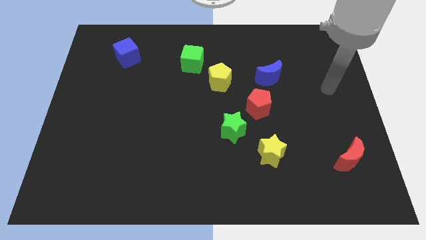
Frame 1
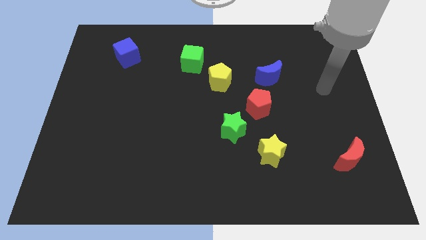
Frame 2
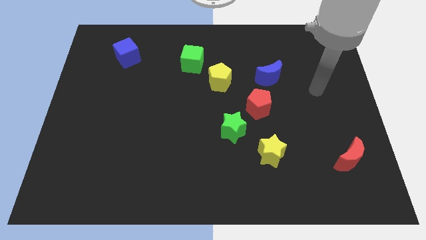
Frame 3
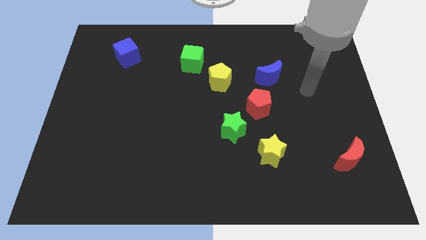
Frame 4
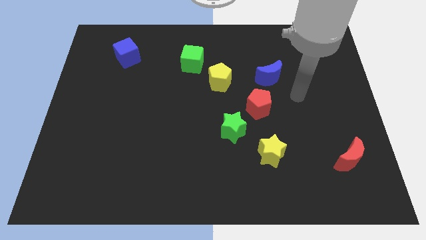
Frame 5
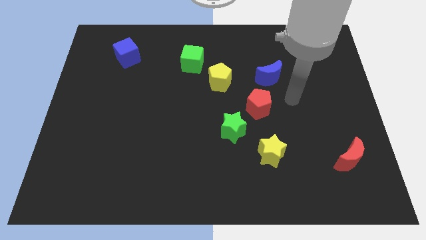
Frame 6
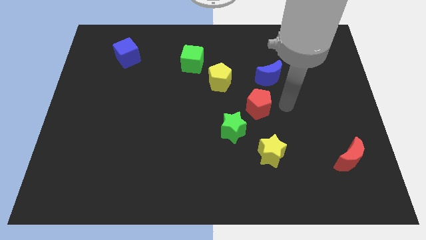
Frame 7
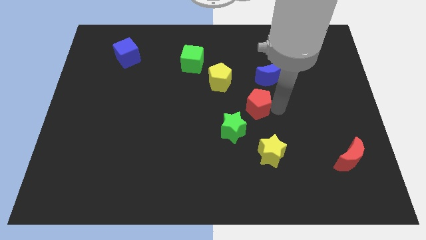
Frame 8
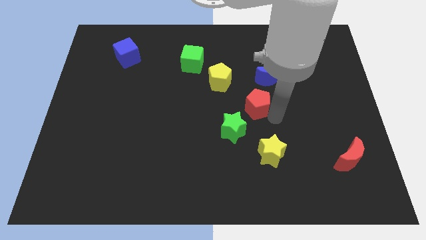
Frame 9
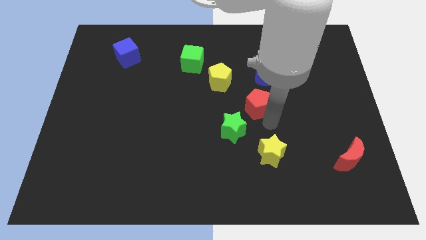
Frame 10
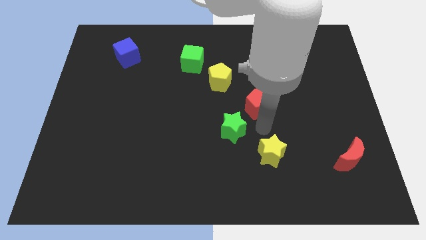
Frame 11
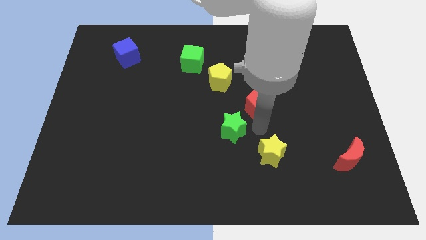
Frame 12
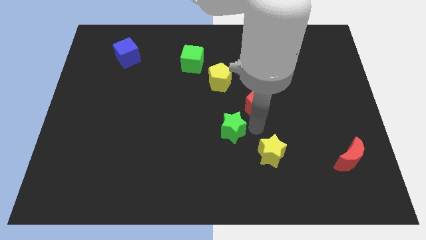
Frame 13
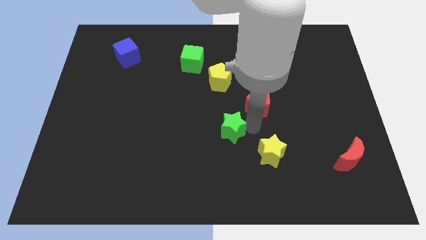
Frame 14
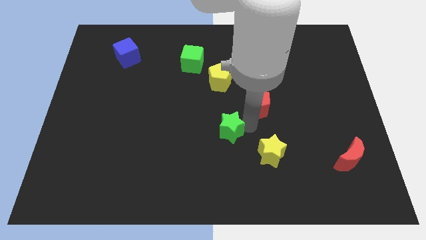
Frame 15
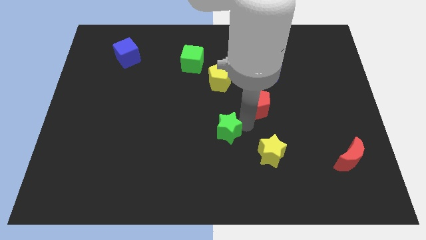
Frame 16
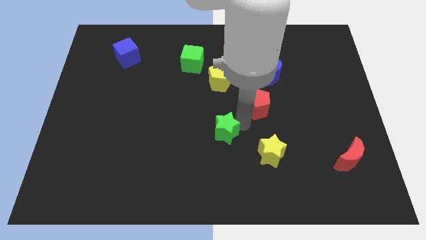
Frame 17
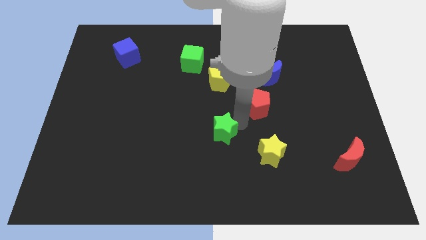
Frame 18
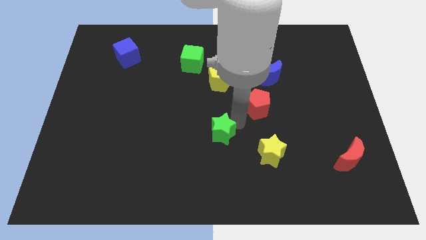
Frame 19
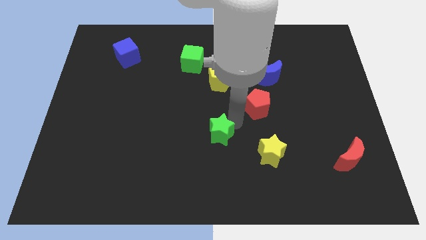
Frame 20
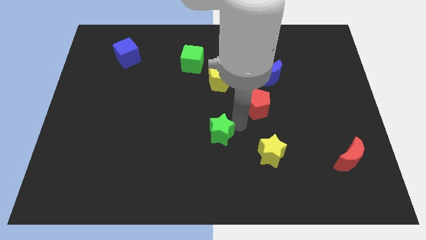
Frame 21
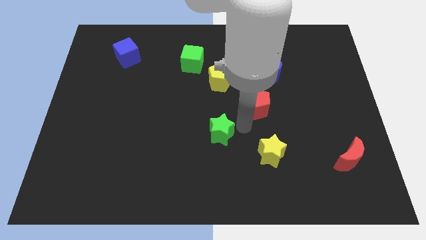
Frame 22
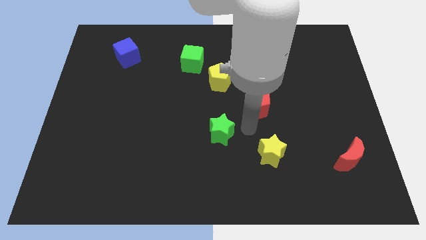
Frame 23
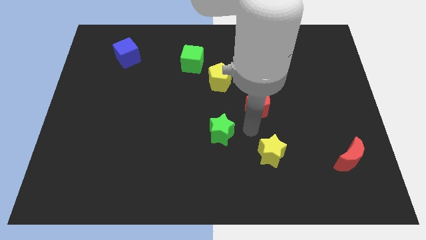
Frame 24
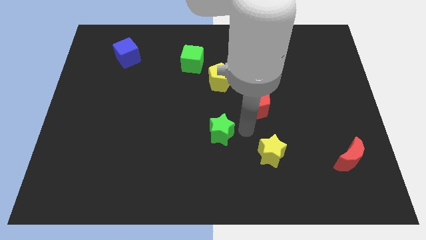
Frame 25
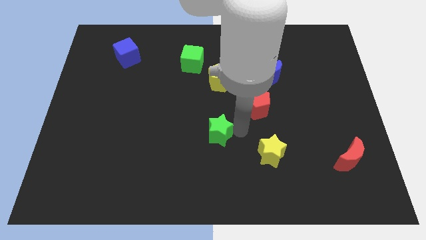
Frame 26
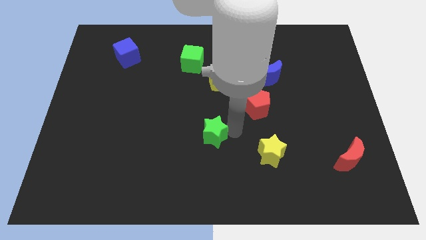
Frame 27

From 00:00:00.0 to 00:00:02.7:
separate the green star from the red pentagon and yellow star

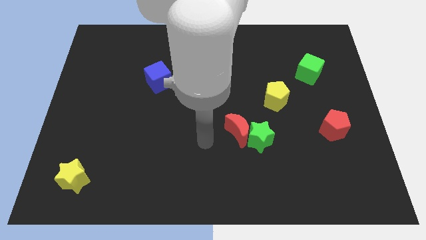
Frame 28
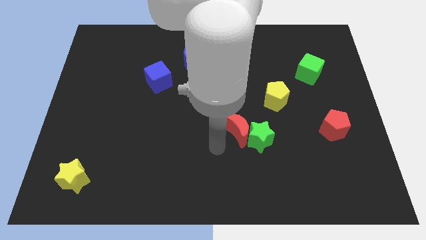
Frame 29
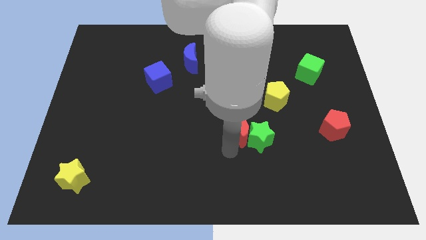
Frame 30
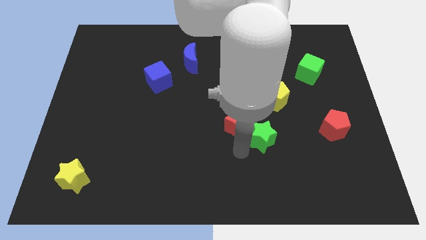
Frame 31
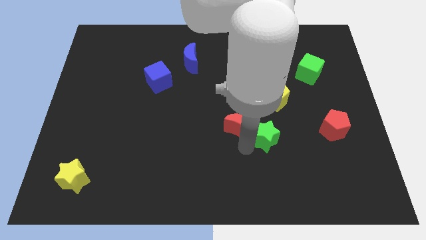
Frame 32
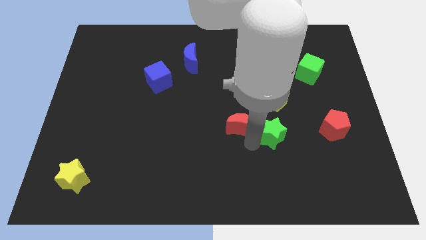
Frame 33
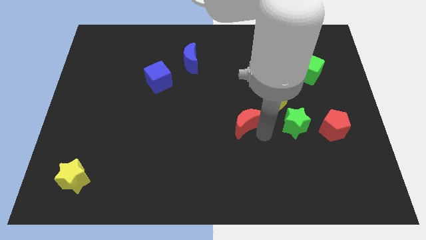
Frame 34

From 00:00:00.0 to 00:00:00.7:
separate the red moon from the green star

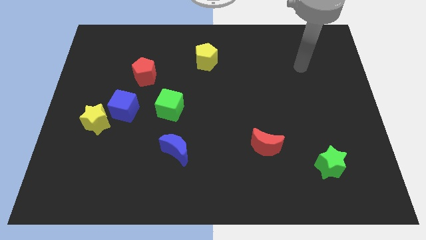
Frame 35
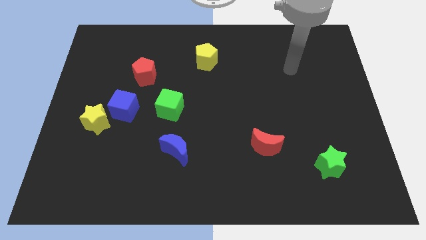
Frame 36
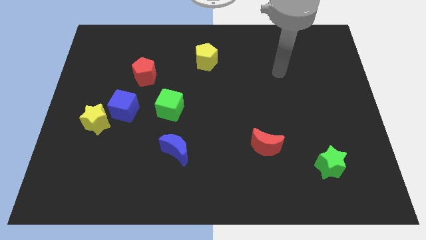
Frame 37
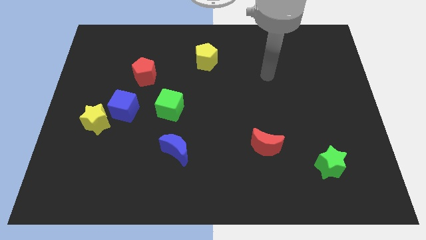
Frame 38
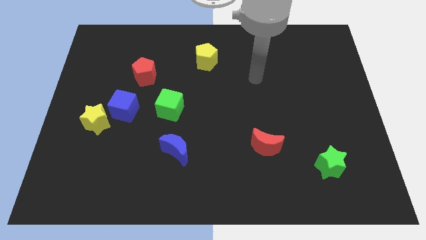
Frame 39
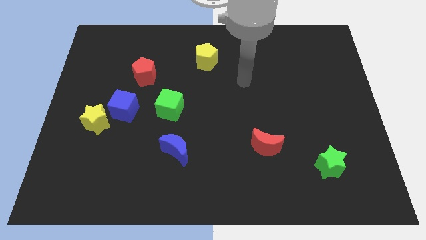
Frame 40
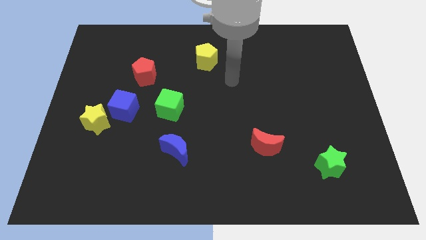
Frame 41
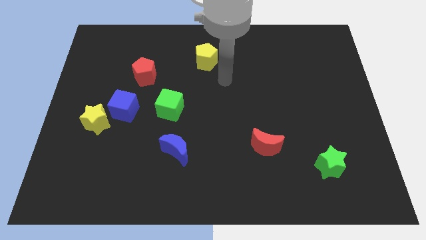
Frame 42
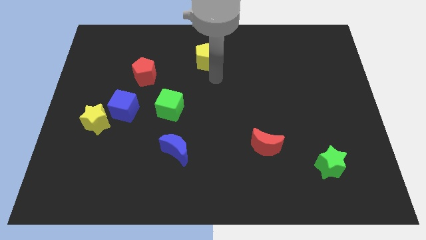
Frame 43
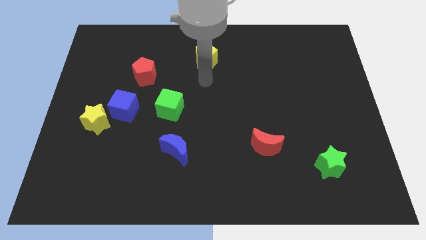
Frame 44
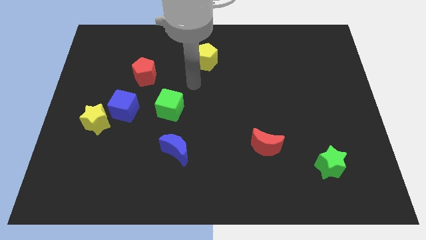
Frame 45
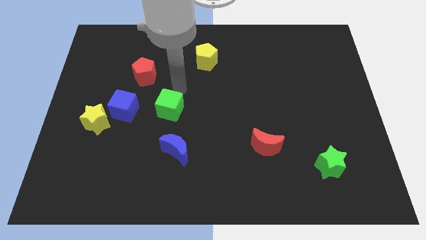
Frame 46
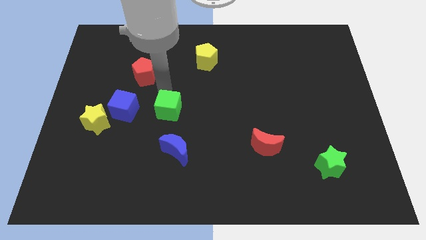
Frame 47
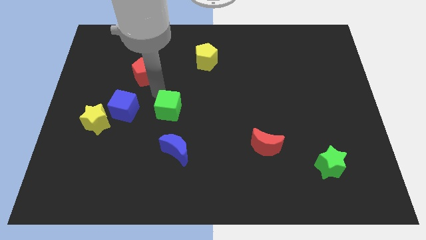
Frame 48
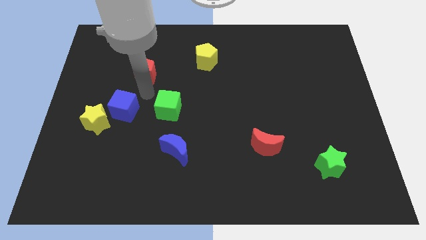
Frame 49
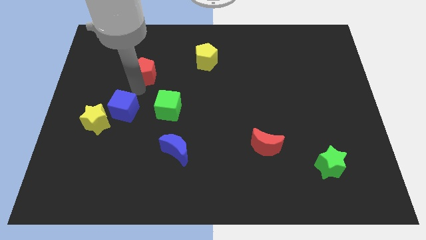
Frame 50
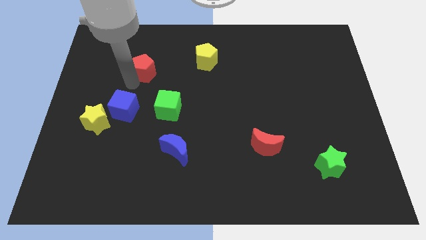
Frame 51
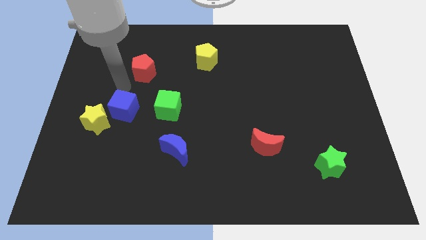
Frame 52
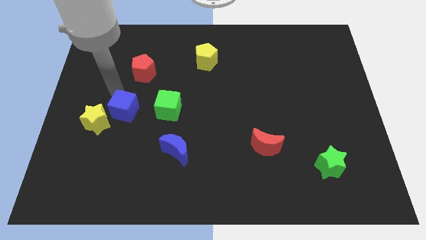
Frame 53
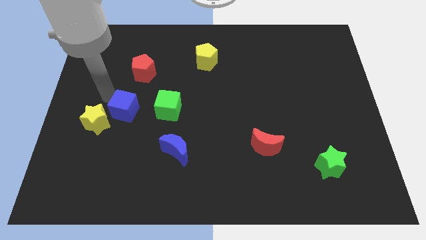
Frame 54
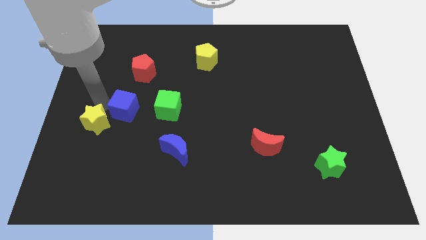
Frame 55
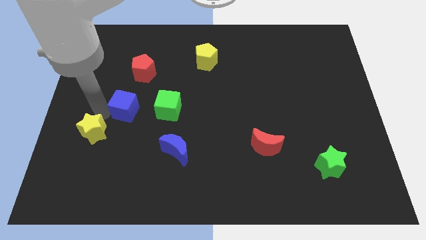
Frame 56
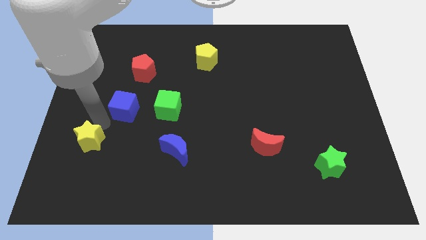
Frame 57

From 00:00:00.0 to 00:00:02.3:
pull the blue cube apart from the yellow star

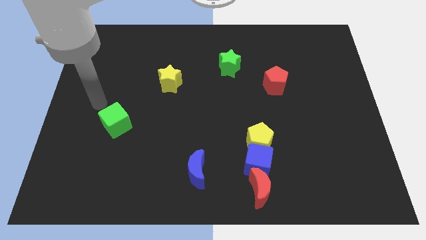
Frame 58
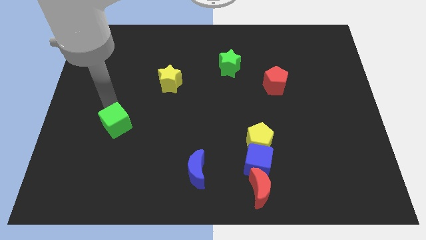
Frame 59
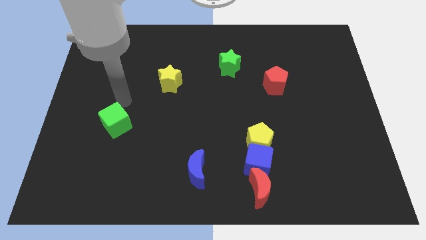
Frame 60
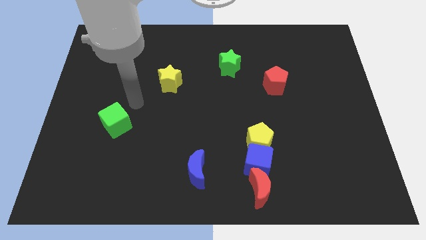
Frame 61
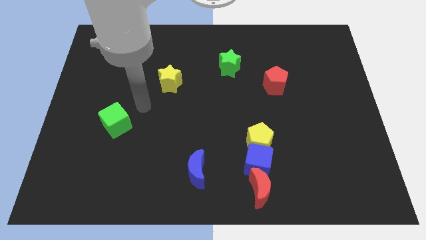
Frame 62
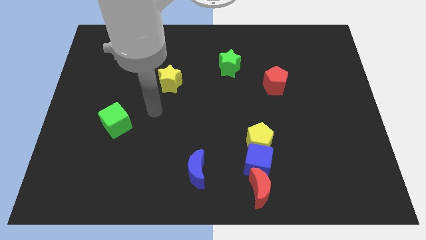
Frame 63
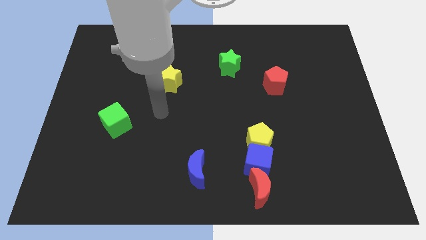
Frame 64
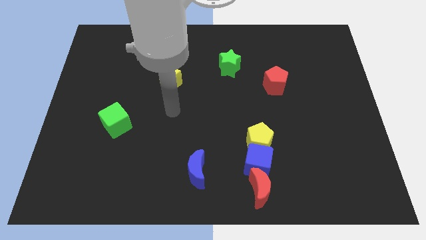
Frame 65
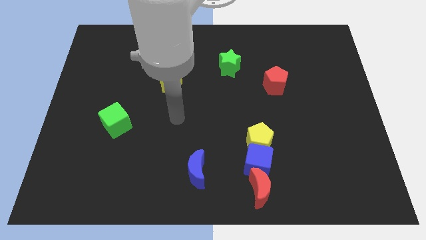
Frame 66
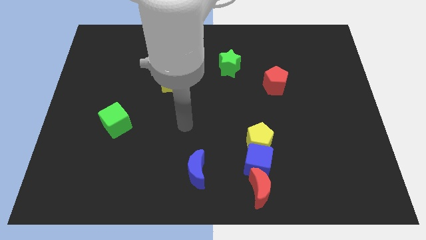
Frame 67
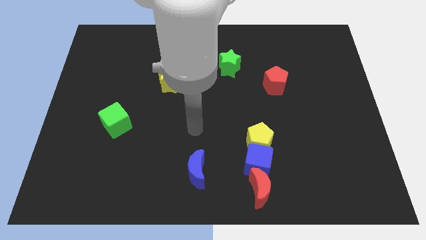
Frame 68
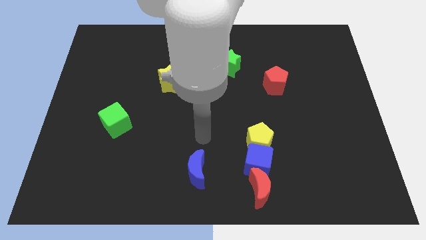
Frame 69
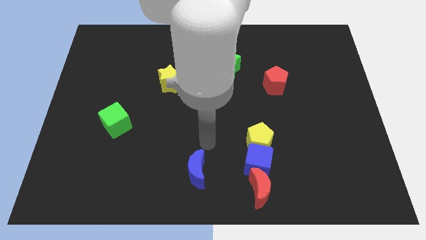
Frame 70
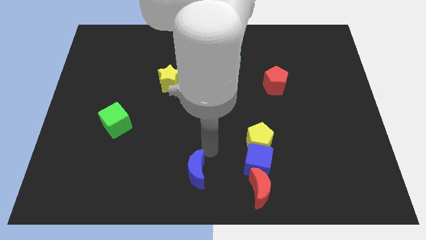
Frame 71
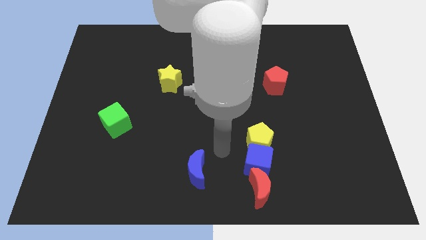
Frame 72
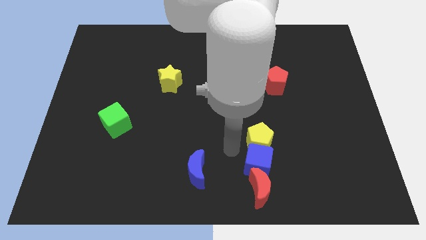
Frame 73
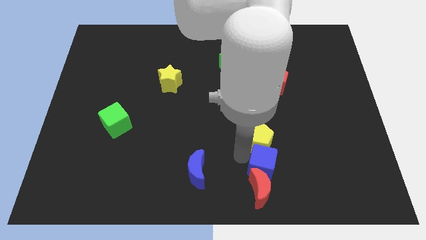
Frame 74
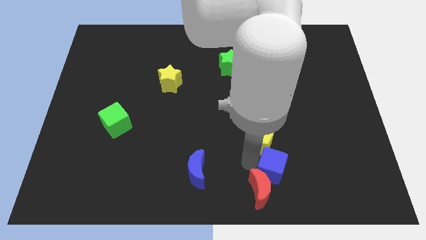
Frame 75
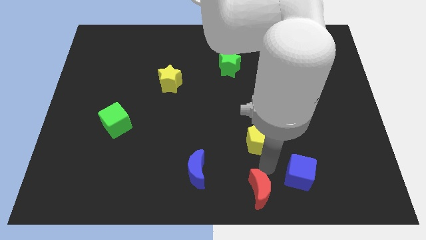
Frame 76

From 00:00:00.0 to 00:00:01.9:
pull the yellow pentagon apart from the blue cube

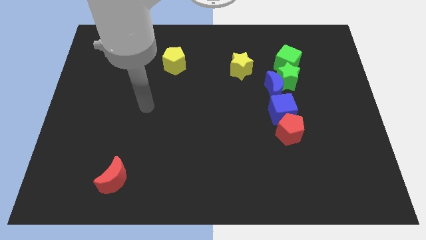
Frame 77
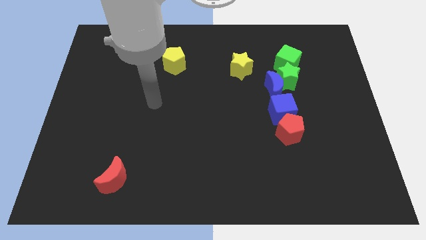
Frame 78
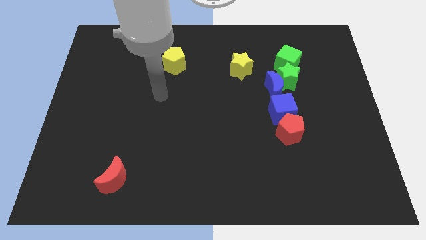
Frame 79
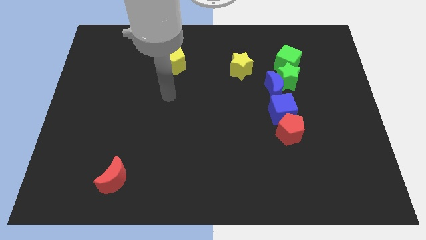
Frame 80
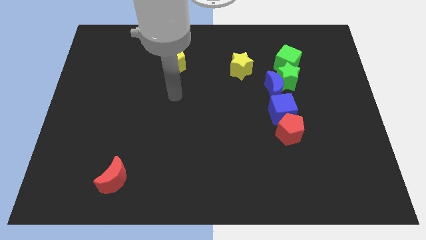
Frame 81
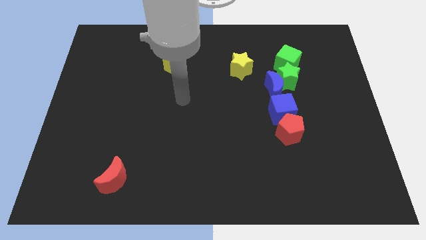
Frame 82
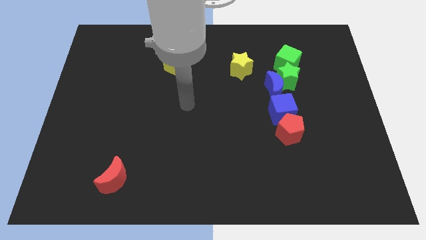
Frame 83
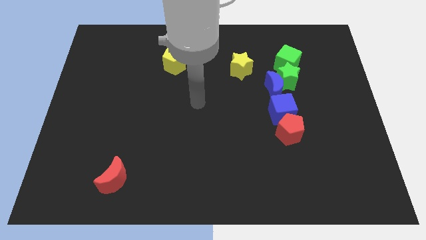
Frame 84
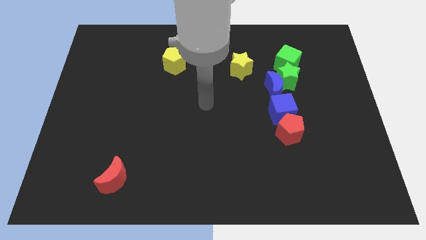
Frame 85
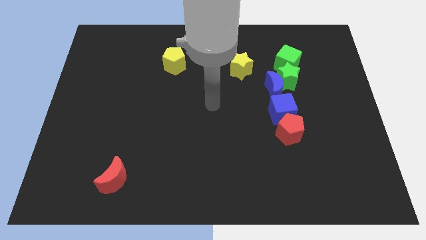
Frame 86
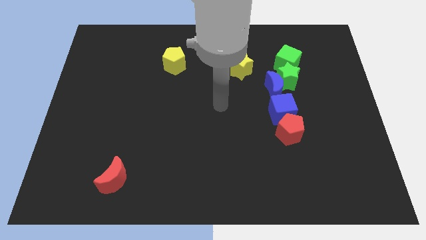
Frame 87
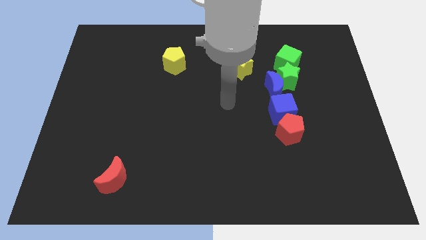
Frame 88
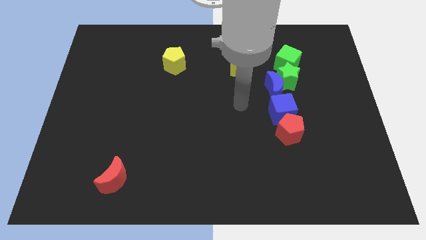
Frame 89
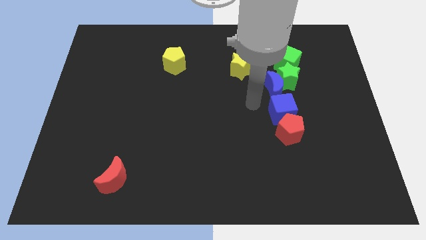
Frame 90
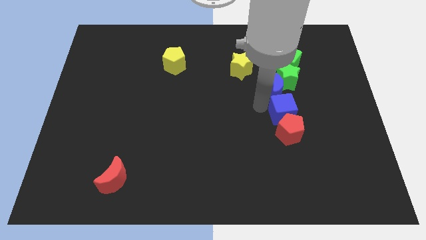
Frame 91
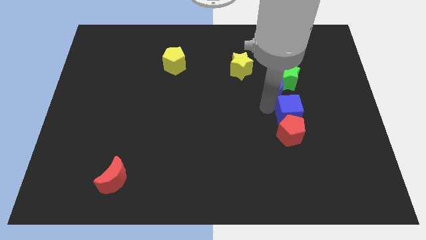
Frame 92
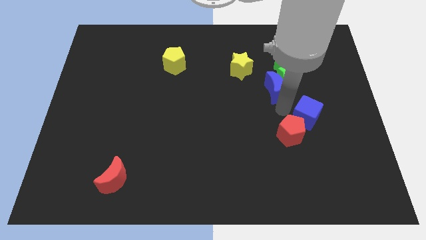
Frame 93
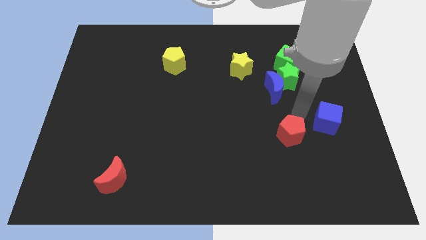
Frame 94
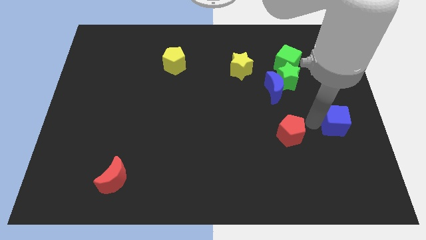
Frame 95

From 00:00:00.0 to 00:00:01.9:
separate the red pentagon from the blue cube
